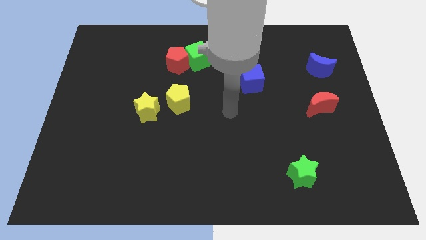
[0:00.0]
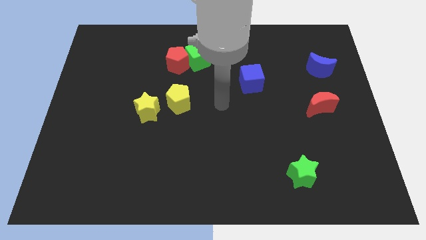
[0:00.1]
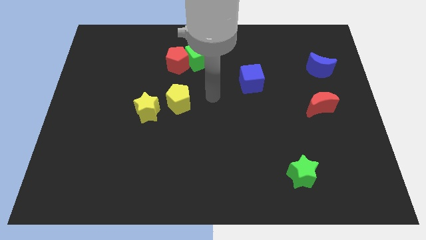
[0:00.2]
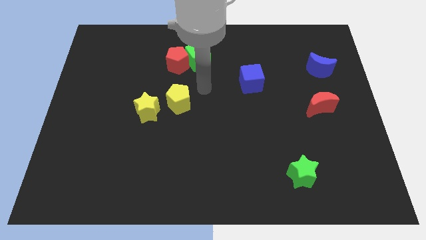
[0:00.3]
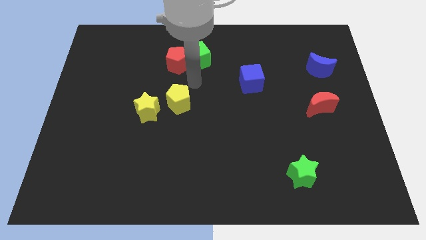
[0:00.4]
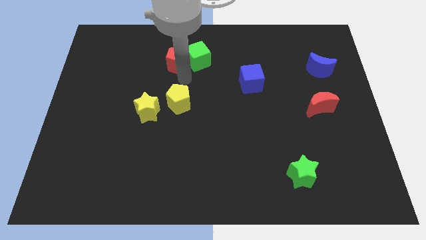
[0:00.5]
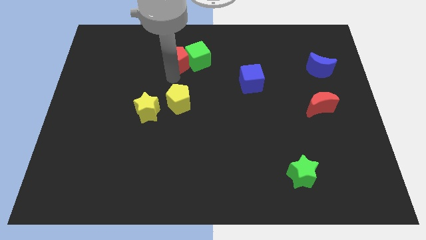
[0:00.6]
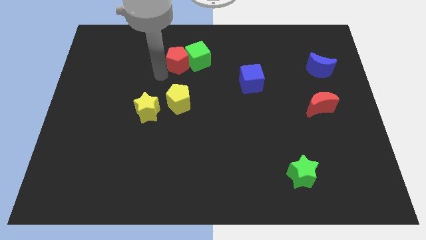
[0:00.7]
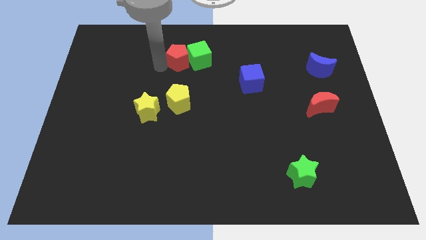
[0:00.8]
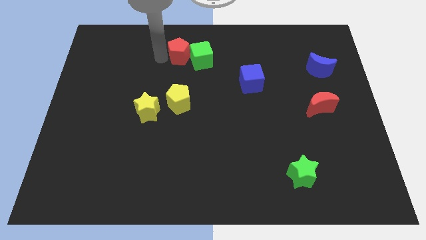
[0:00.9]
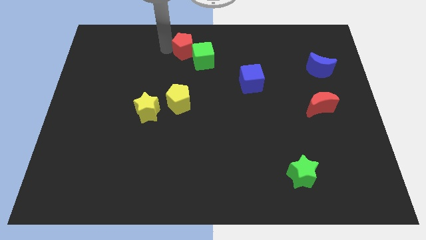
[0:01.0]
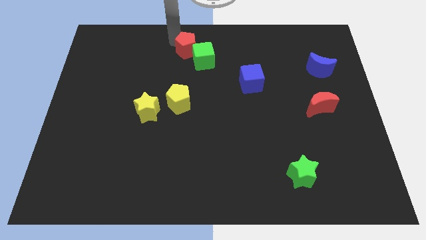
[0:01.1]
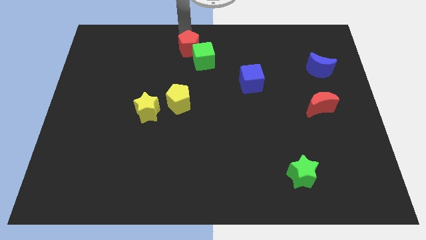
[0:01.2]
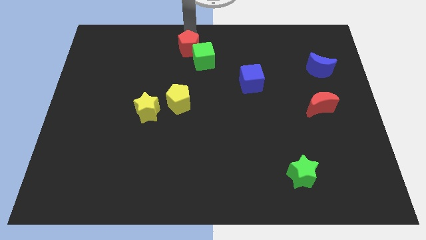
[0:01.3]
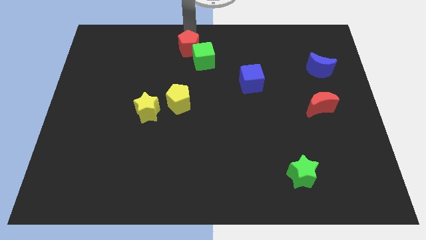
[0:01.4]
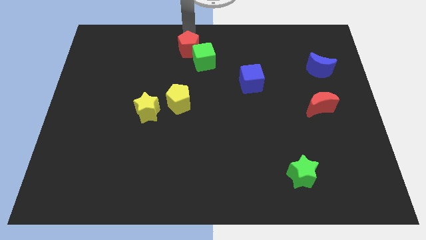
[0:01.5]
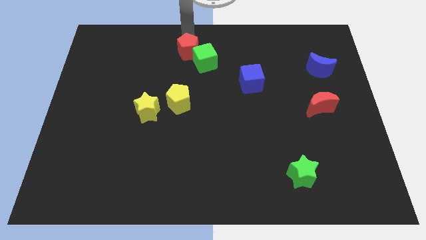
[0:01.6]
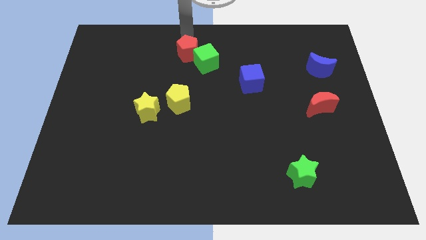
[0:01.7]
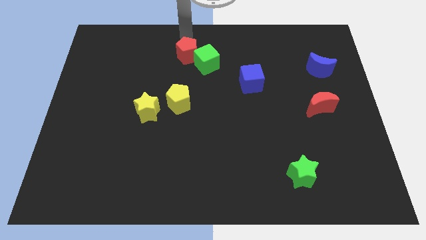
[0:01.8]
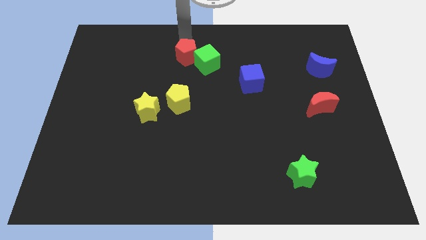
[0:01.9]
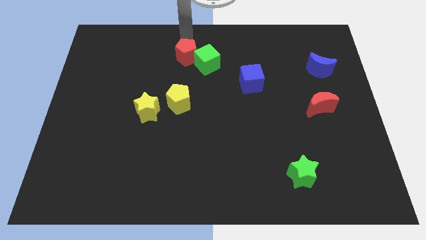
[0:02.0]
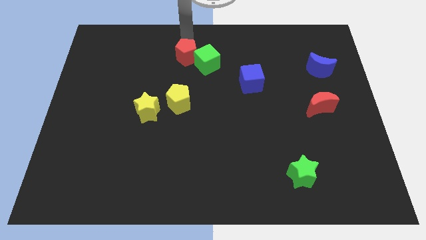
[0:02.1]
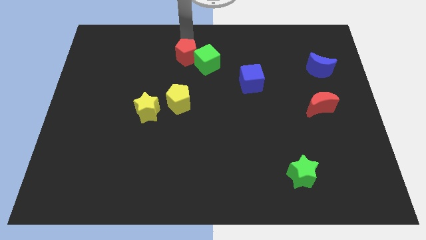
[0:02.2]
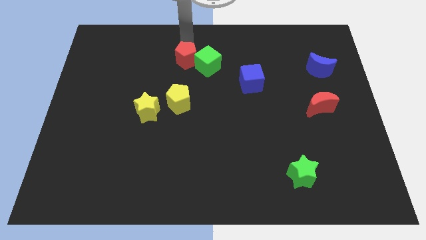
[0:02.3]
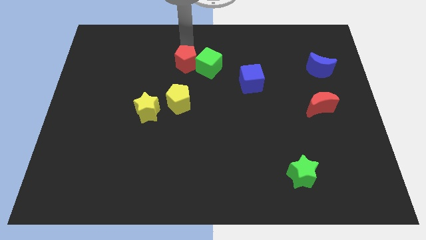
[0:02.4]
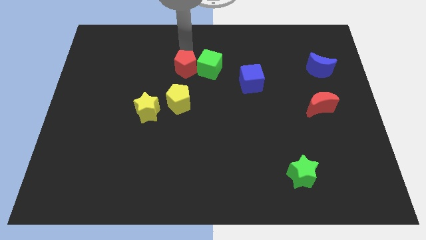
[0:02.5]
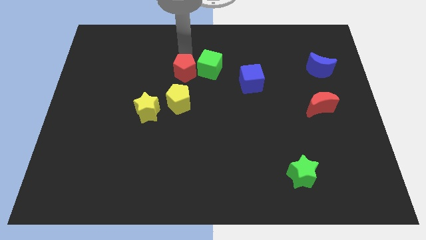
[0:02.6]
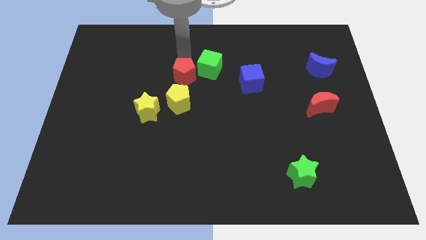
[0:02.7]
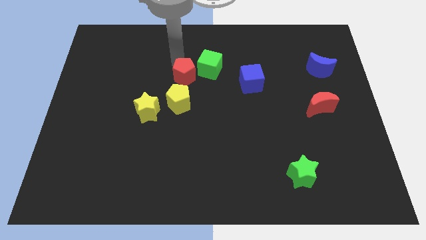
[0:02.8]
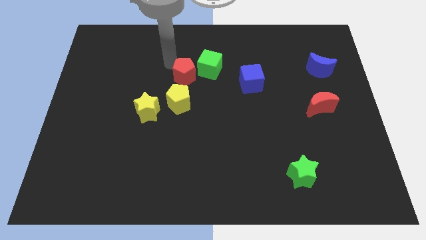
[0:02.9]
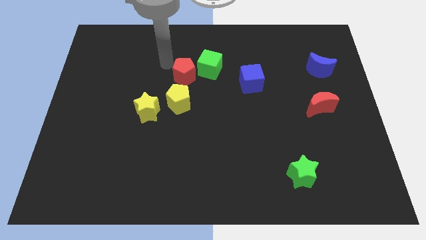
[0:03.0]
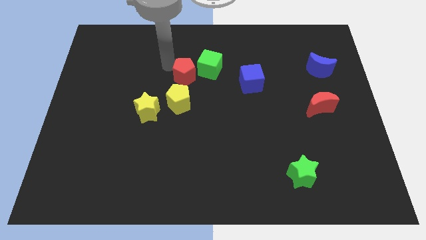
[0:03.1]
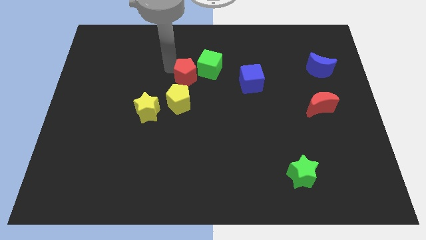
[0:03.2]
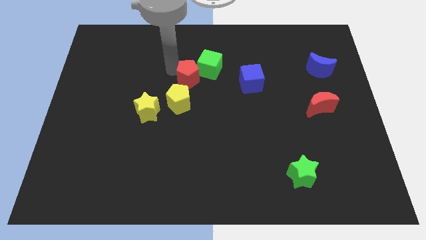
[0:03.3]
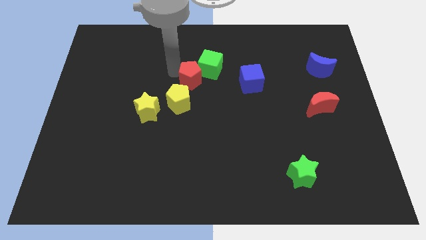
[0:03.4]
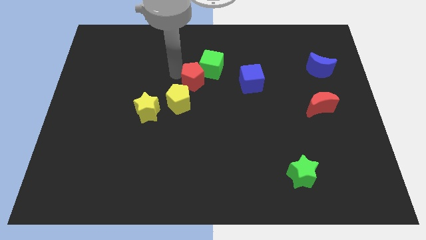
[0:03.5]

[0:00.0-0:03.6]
slide the red pentagon slightly downwards and then right

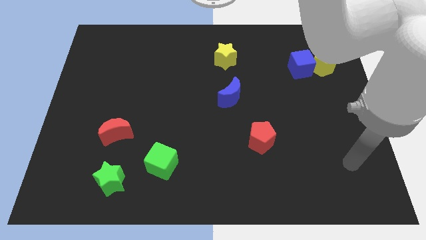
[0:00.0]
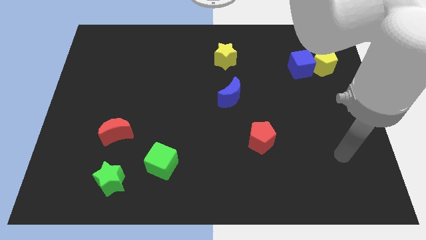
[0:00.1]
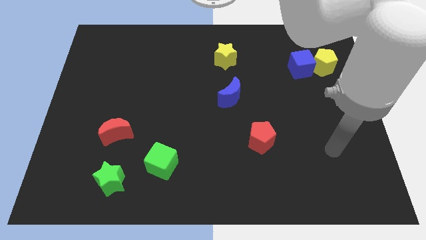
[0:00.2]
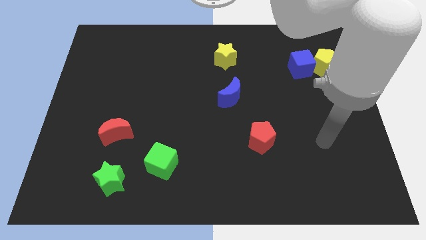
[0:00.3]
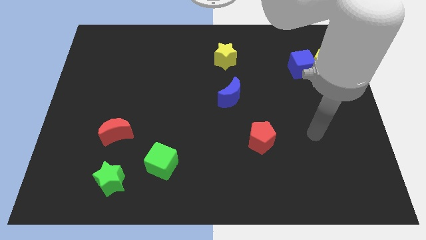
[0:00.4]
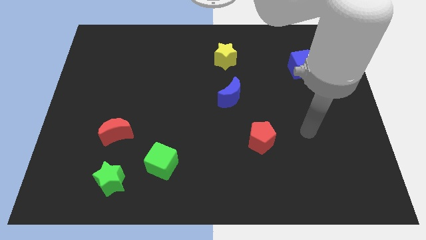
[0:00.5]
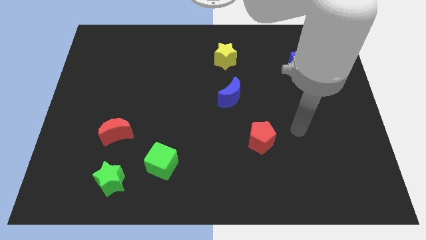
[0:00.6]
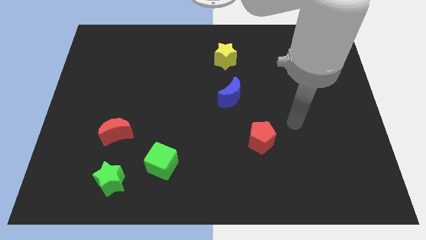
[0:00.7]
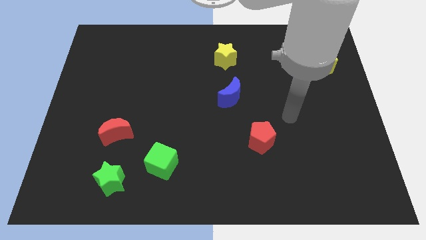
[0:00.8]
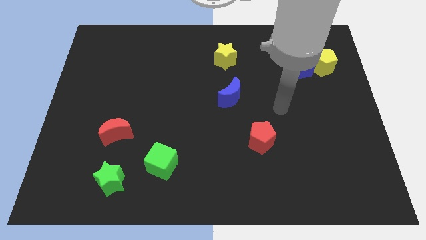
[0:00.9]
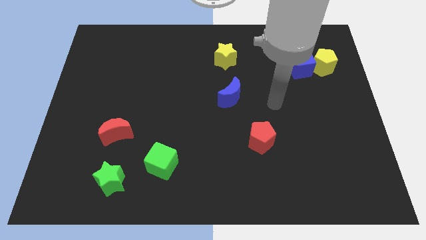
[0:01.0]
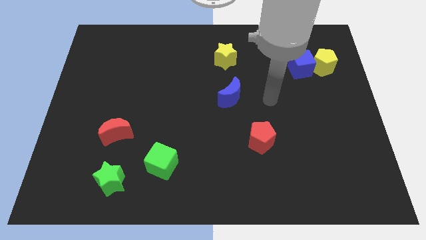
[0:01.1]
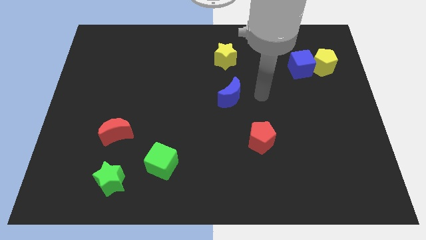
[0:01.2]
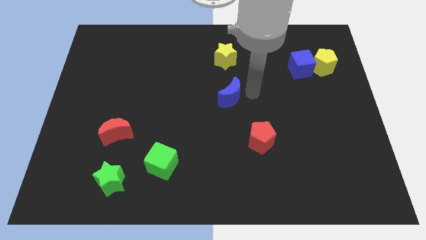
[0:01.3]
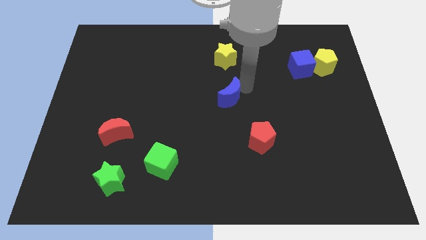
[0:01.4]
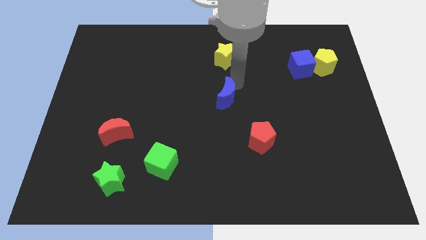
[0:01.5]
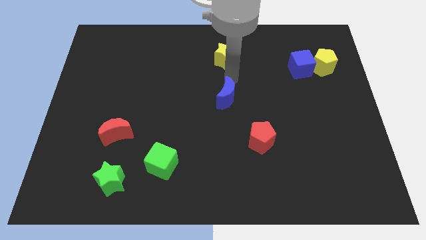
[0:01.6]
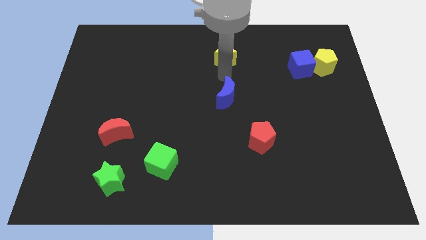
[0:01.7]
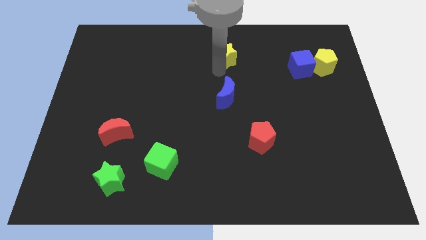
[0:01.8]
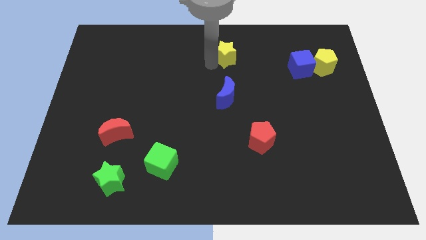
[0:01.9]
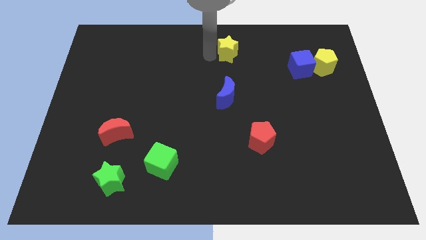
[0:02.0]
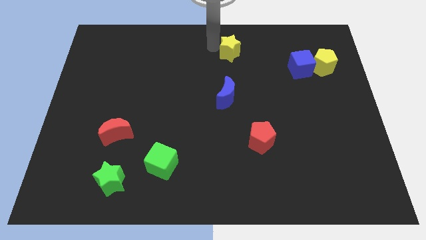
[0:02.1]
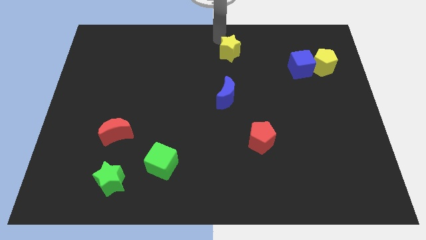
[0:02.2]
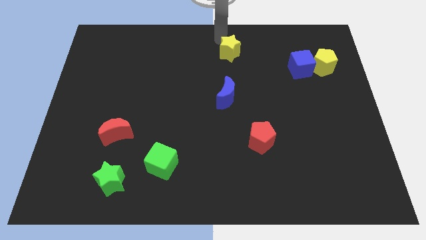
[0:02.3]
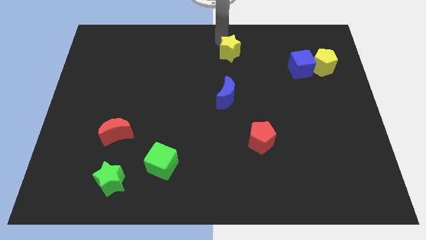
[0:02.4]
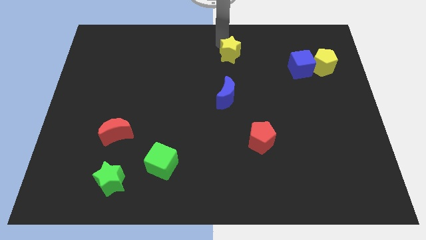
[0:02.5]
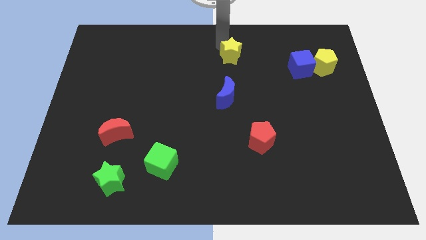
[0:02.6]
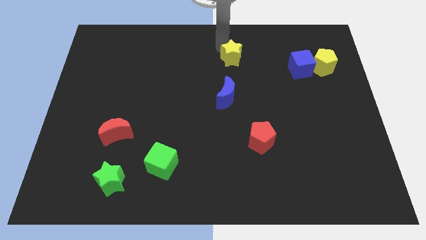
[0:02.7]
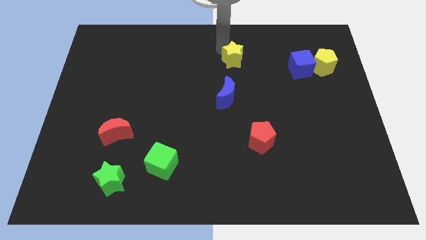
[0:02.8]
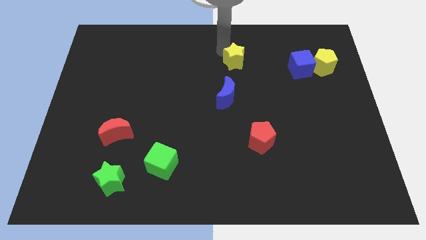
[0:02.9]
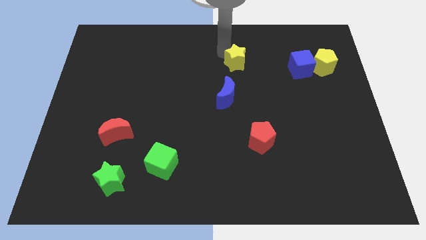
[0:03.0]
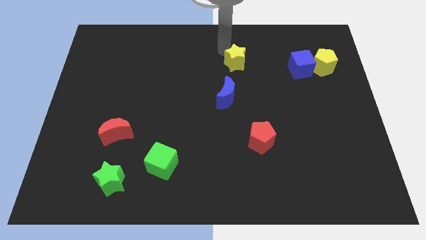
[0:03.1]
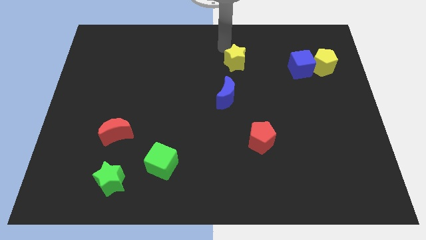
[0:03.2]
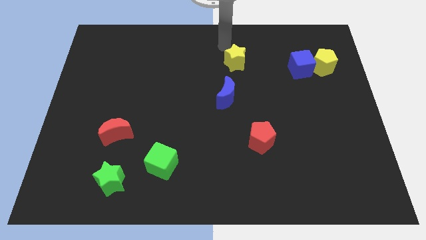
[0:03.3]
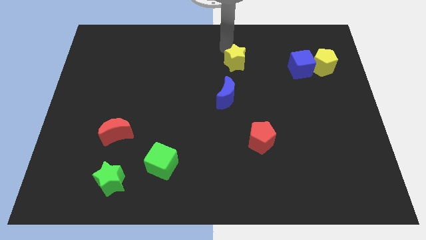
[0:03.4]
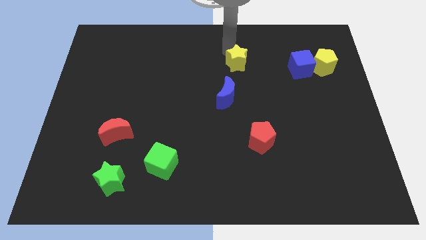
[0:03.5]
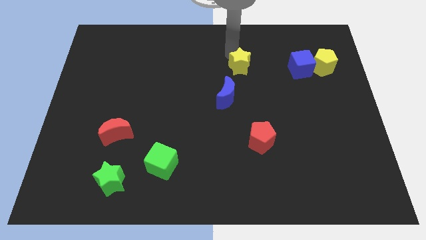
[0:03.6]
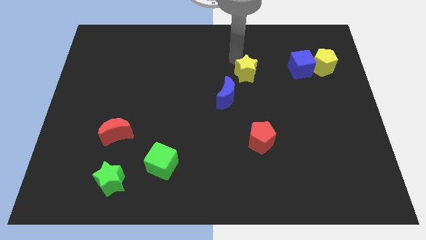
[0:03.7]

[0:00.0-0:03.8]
move the yellow star slightly downwards and then right

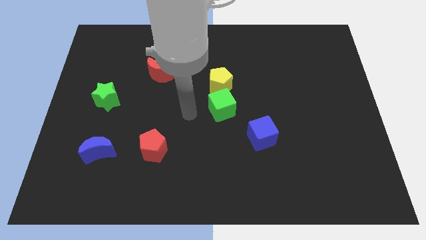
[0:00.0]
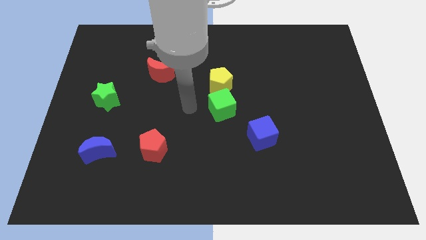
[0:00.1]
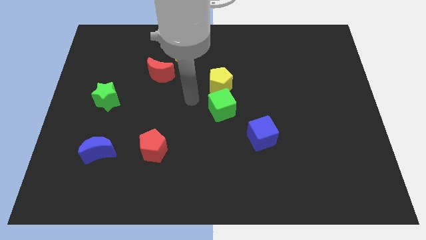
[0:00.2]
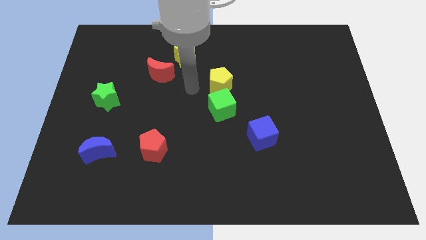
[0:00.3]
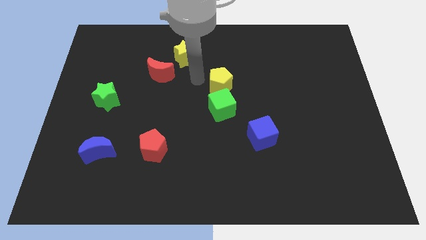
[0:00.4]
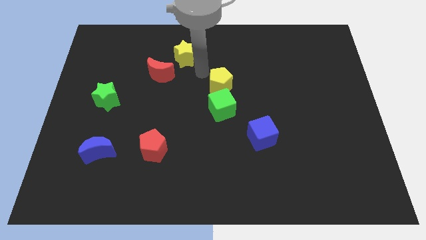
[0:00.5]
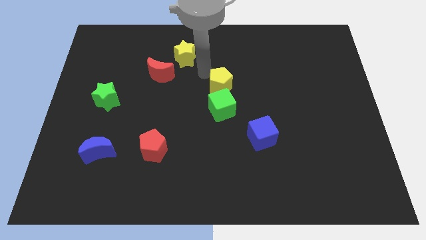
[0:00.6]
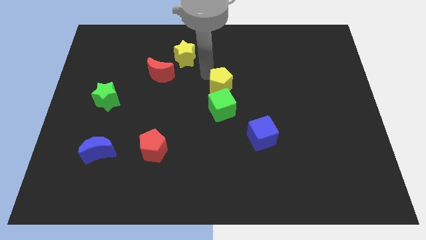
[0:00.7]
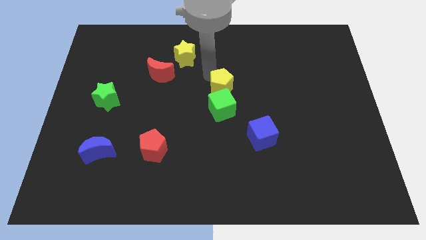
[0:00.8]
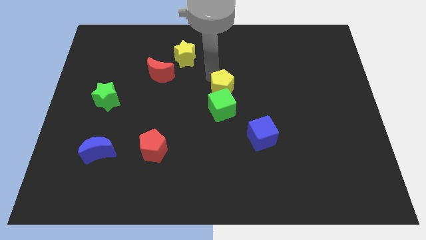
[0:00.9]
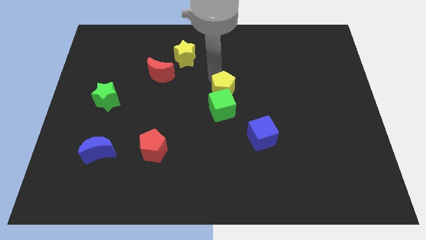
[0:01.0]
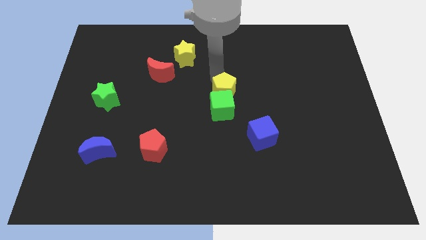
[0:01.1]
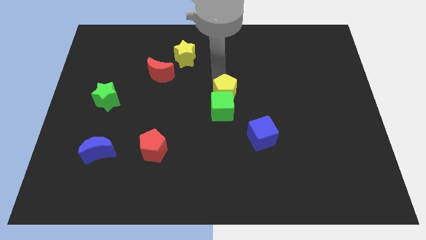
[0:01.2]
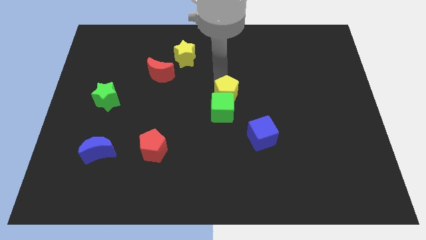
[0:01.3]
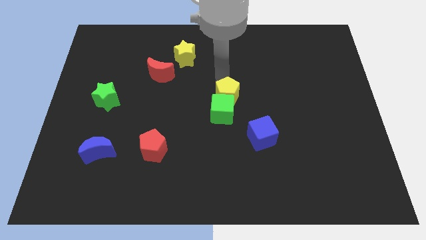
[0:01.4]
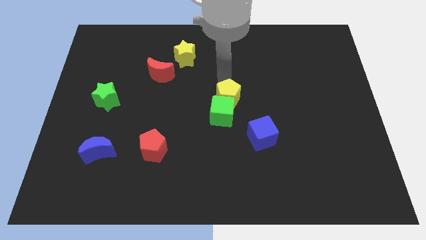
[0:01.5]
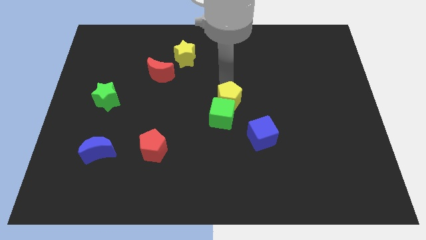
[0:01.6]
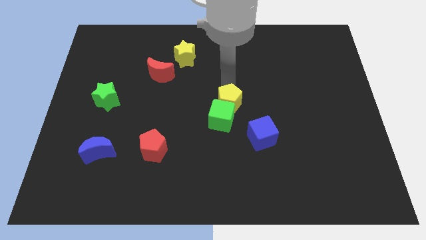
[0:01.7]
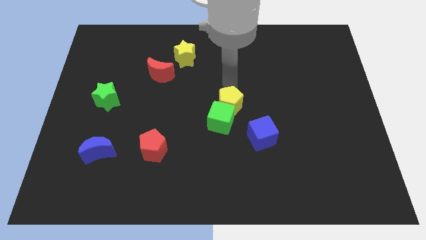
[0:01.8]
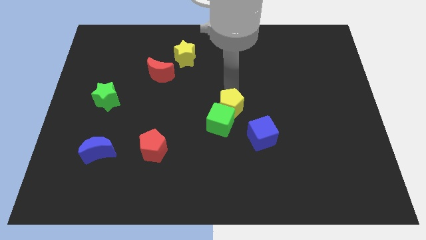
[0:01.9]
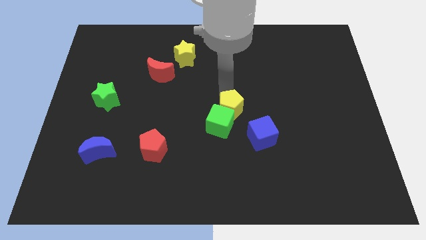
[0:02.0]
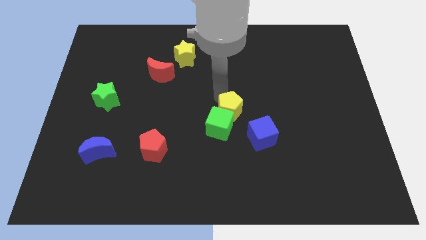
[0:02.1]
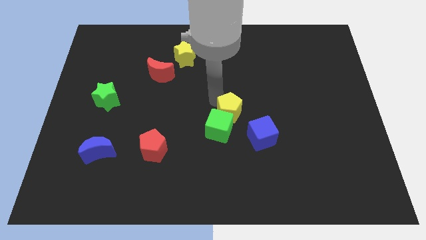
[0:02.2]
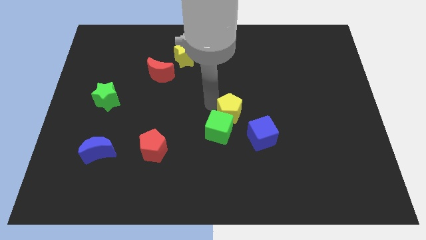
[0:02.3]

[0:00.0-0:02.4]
move the yellow pentagon a little bit downwards and then to the right
